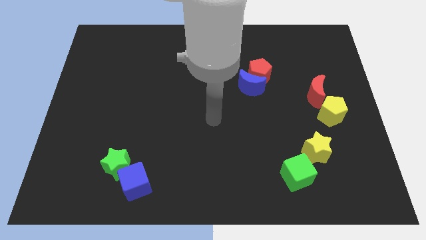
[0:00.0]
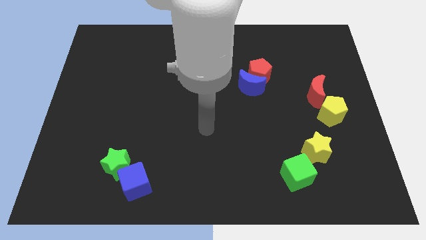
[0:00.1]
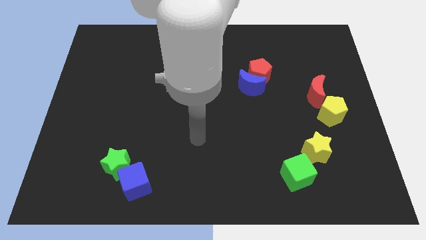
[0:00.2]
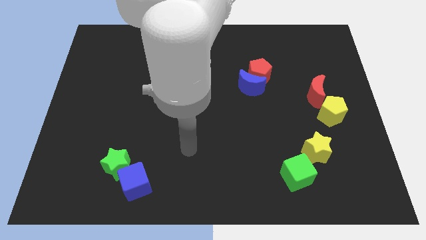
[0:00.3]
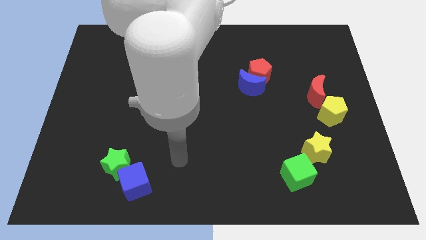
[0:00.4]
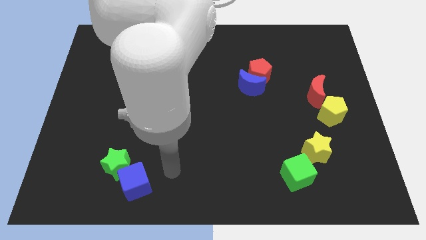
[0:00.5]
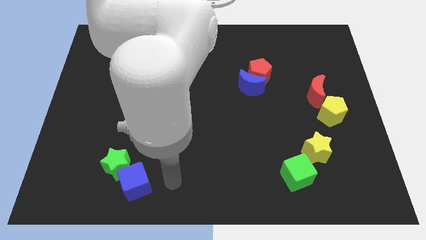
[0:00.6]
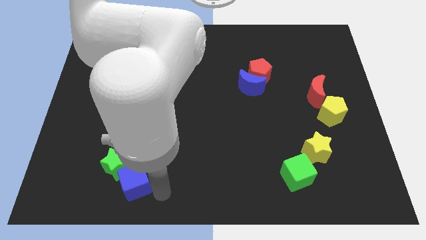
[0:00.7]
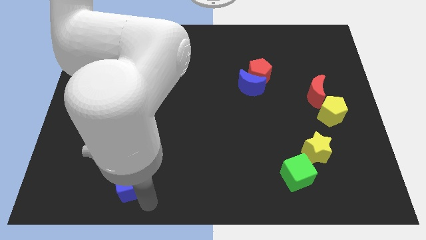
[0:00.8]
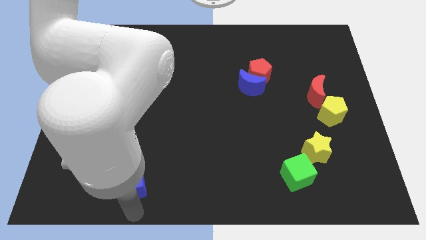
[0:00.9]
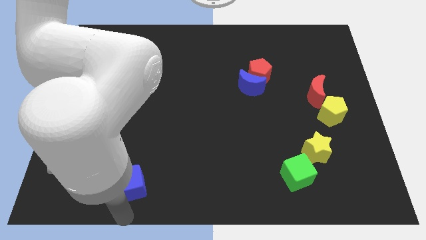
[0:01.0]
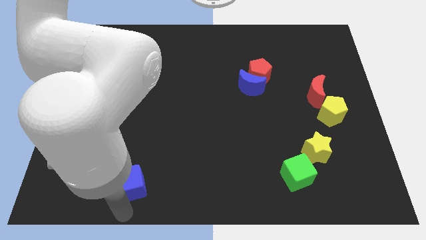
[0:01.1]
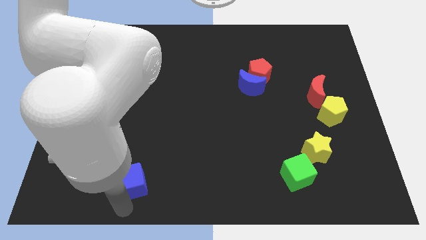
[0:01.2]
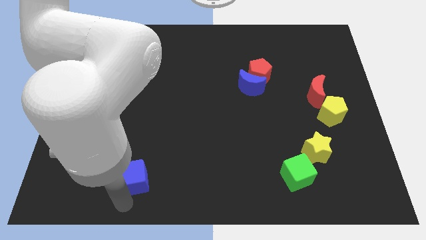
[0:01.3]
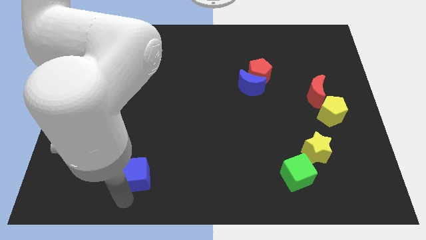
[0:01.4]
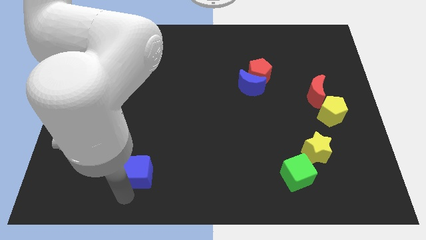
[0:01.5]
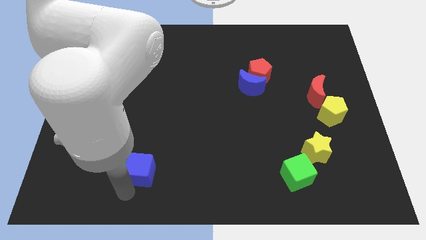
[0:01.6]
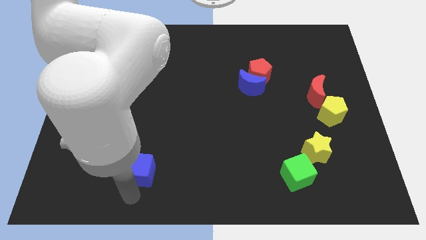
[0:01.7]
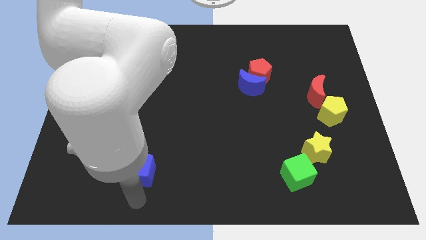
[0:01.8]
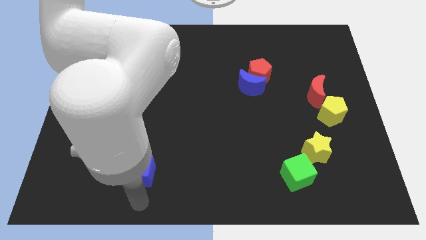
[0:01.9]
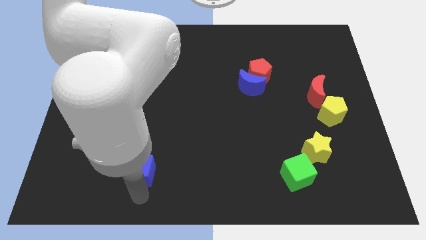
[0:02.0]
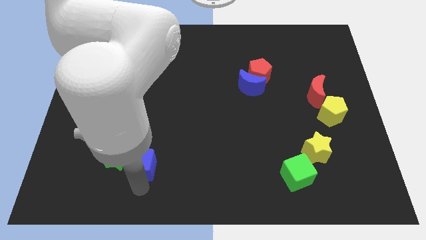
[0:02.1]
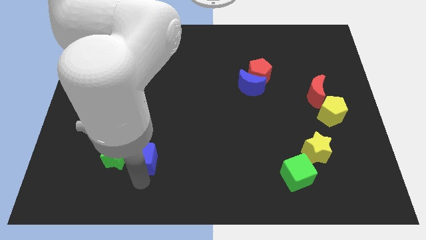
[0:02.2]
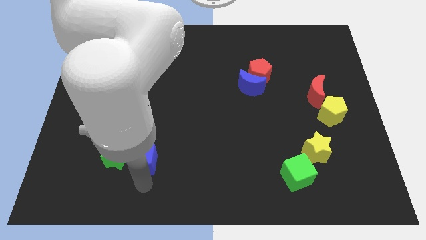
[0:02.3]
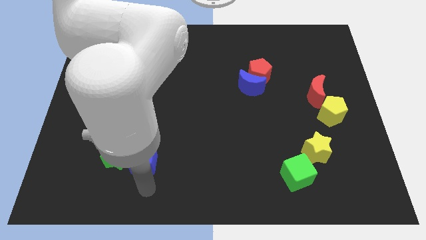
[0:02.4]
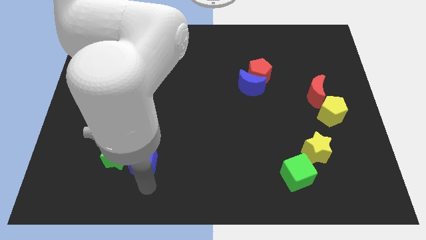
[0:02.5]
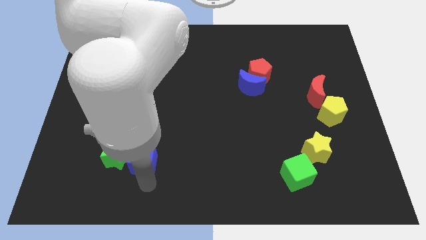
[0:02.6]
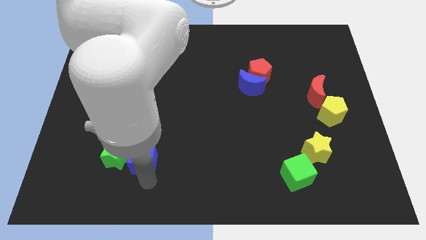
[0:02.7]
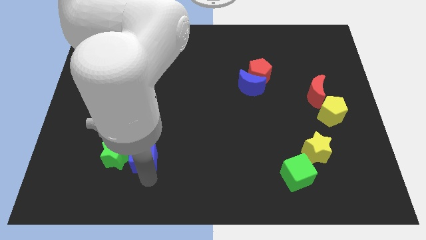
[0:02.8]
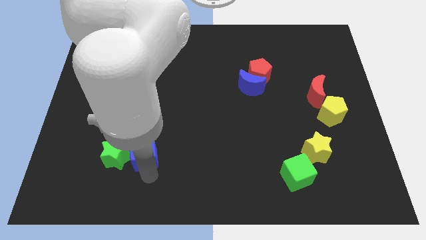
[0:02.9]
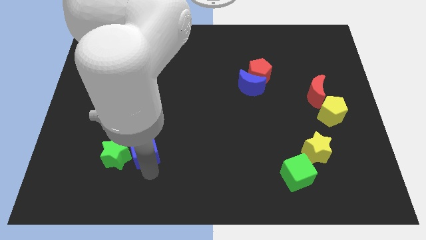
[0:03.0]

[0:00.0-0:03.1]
slightly push the blue cube upwards

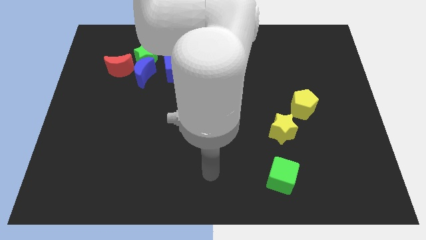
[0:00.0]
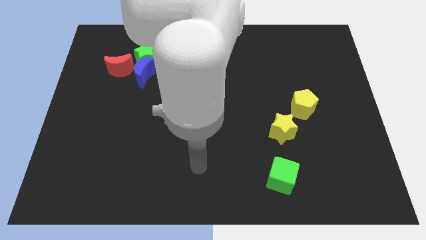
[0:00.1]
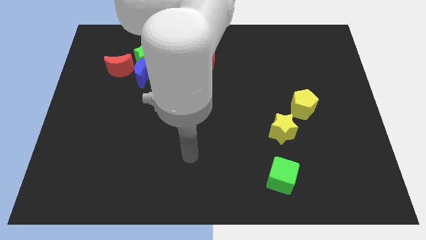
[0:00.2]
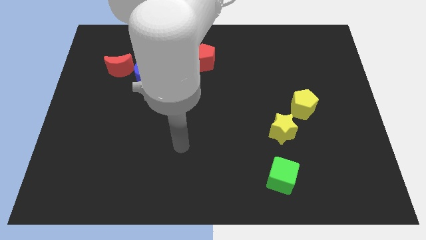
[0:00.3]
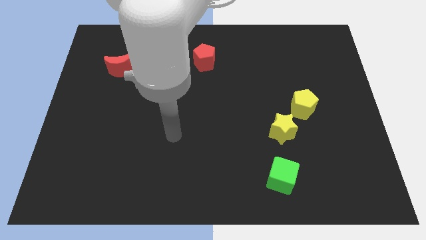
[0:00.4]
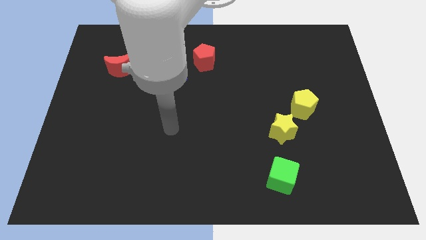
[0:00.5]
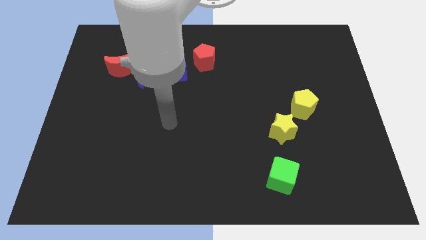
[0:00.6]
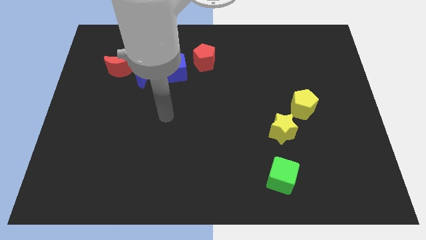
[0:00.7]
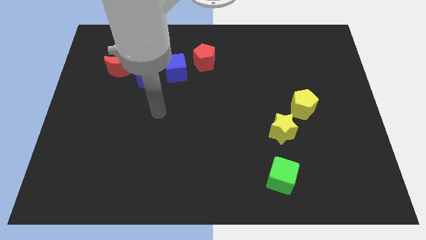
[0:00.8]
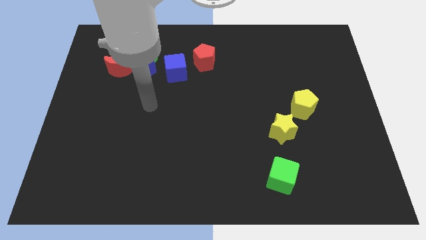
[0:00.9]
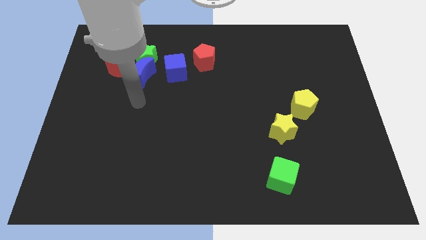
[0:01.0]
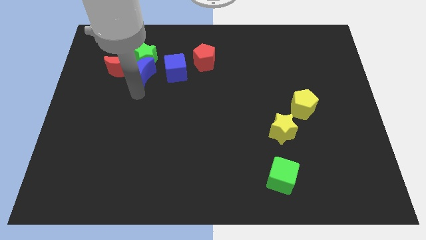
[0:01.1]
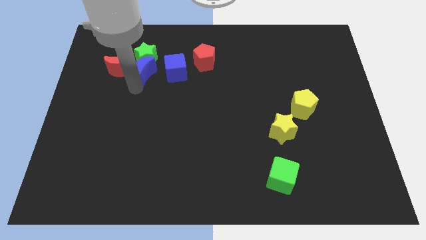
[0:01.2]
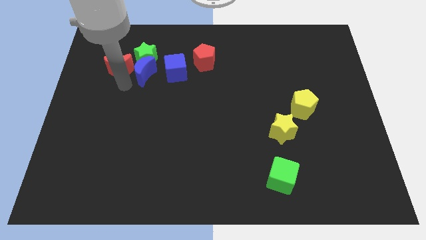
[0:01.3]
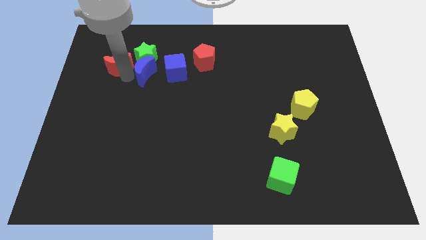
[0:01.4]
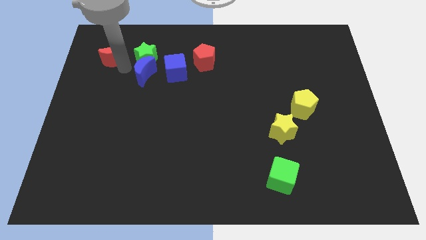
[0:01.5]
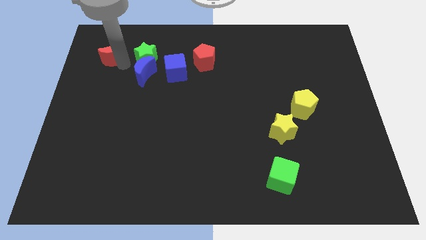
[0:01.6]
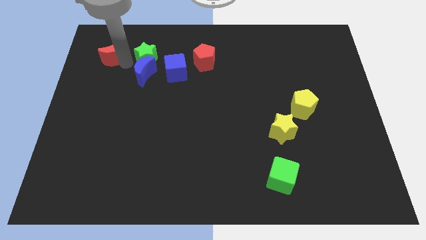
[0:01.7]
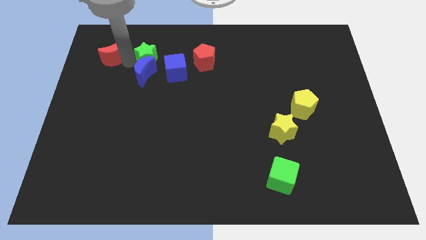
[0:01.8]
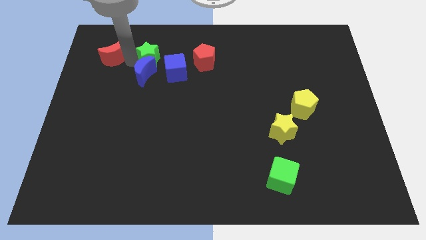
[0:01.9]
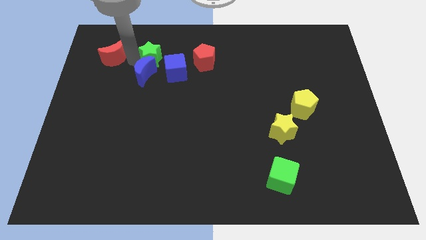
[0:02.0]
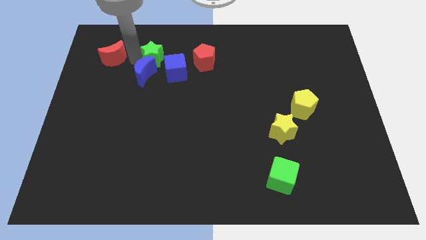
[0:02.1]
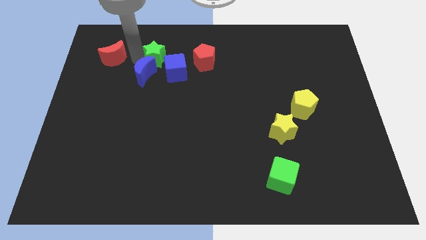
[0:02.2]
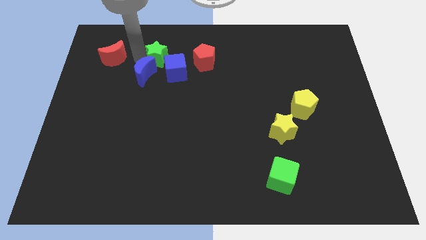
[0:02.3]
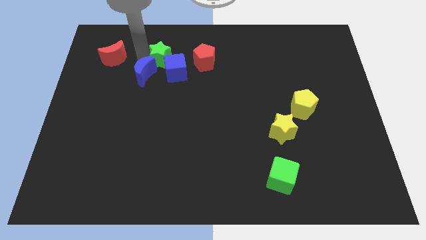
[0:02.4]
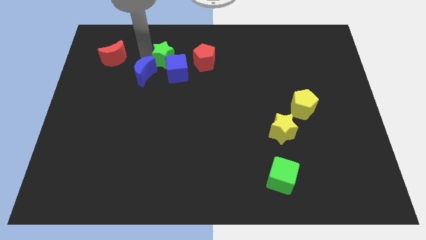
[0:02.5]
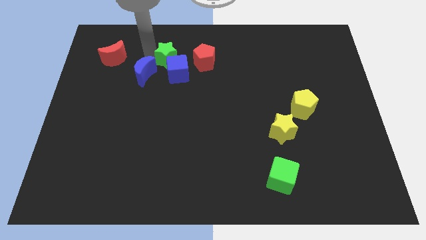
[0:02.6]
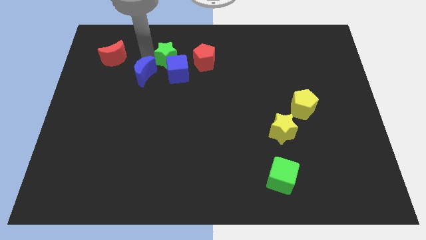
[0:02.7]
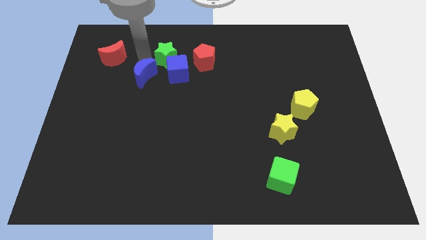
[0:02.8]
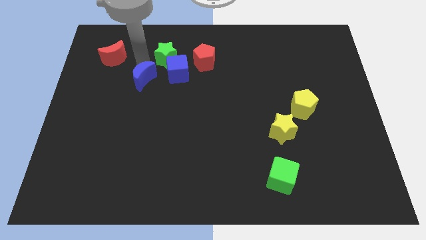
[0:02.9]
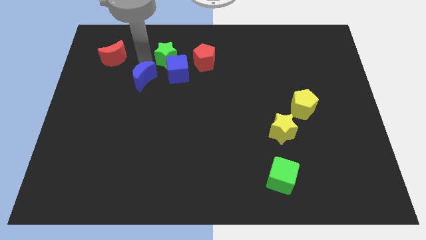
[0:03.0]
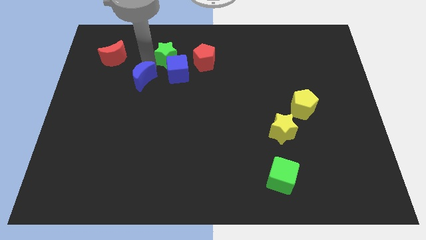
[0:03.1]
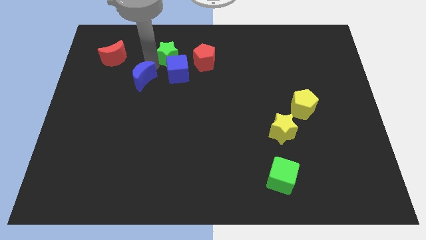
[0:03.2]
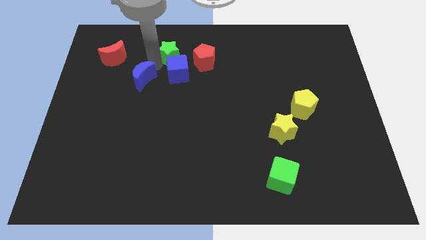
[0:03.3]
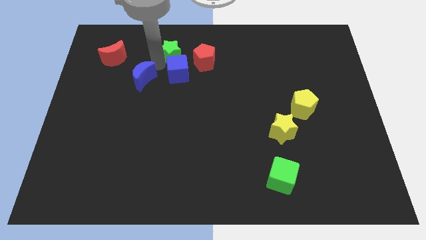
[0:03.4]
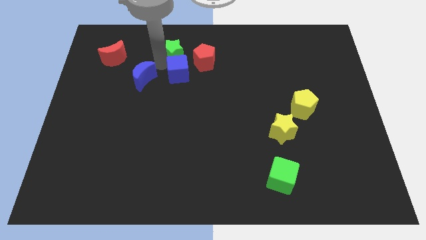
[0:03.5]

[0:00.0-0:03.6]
slide the green star a bit to the right

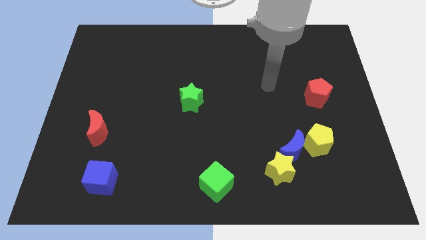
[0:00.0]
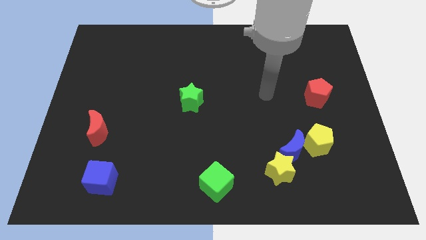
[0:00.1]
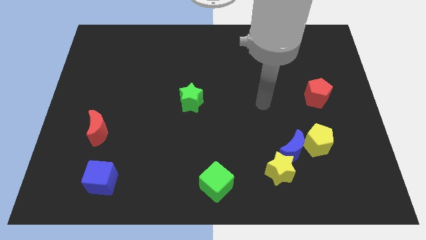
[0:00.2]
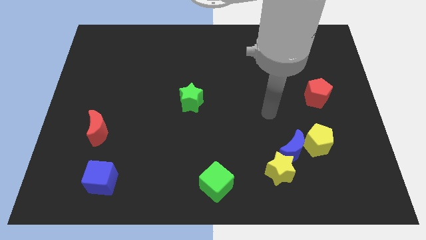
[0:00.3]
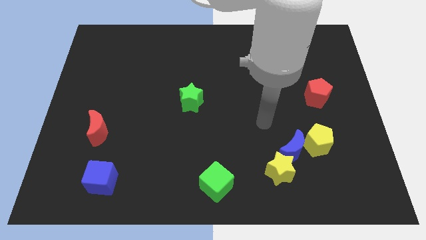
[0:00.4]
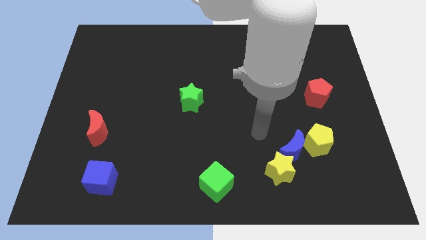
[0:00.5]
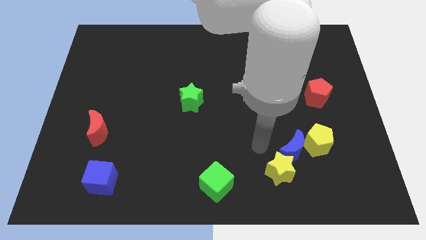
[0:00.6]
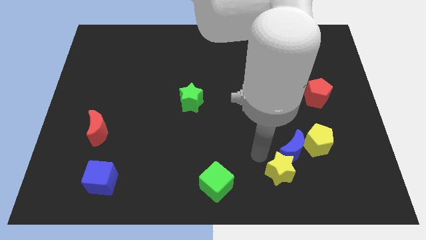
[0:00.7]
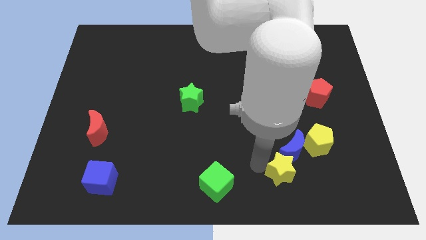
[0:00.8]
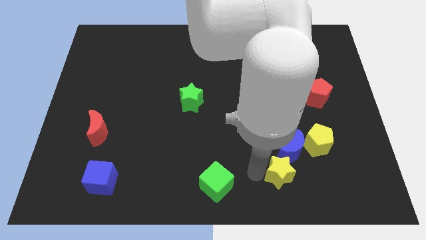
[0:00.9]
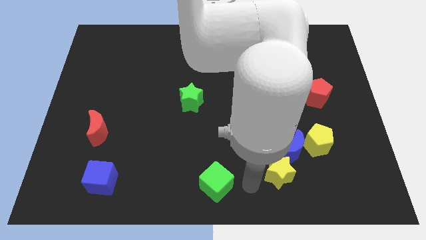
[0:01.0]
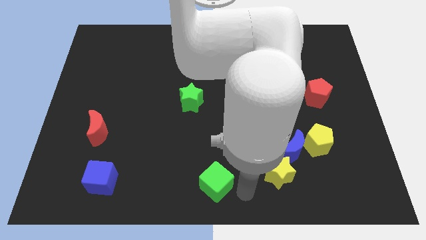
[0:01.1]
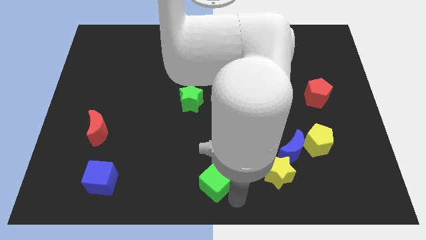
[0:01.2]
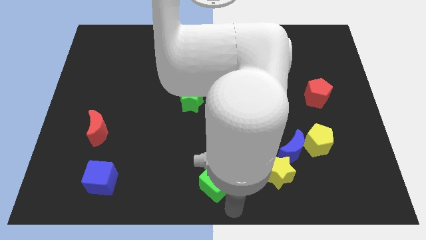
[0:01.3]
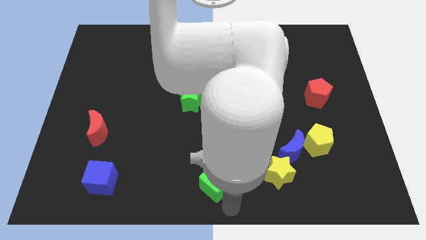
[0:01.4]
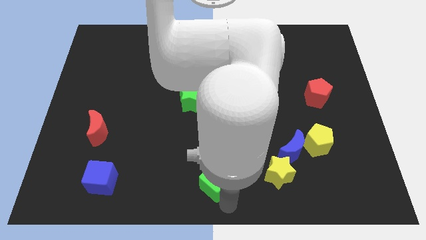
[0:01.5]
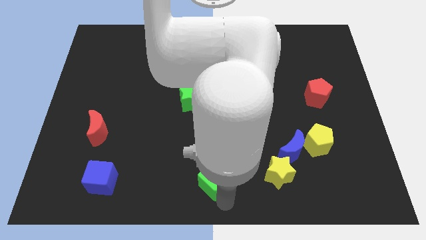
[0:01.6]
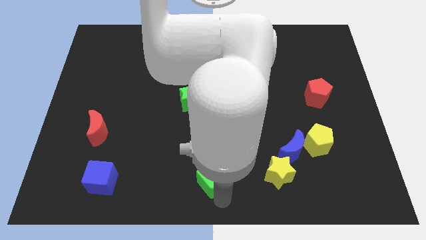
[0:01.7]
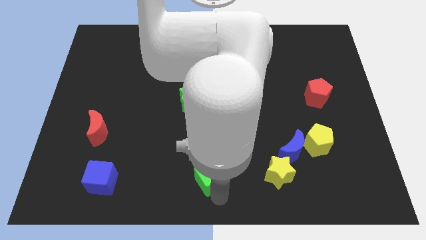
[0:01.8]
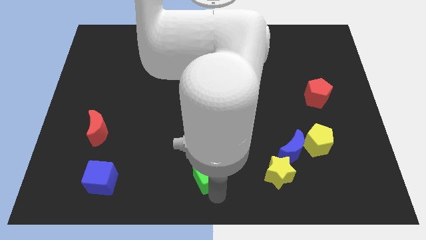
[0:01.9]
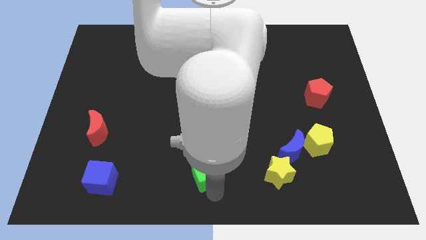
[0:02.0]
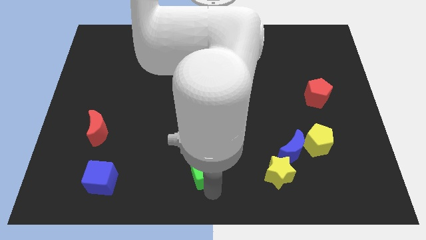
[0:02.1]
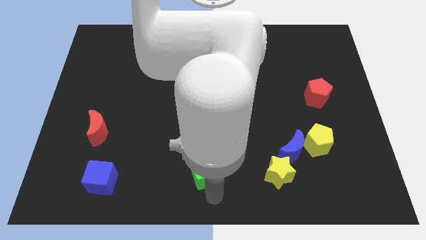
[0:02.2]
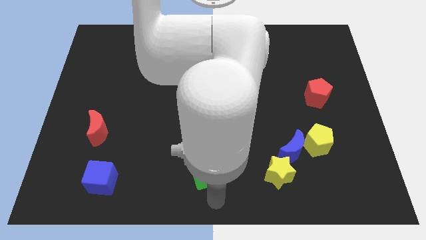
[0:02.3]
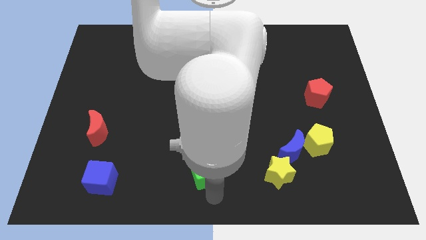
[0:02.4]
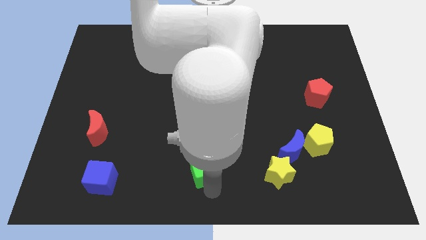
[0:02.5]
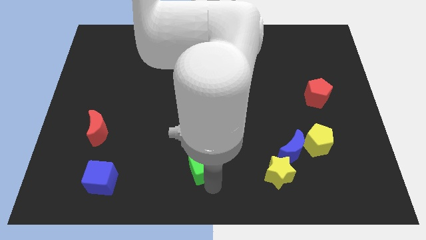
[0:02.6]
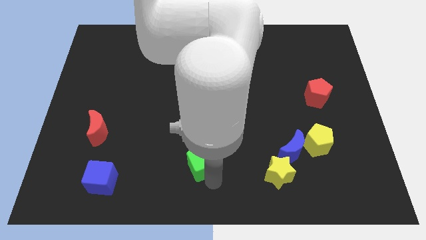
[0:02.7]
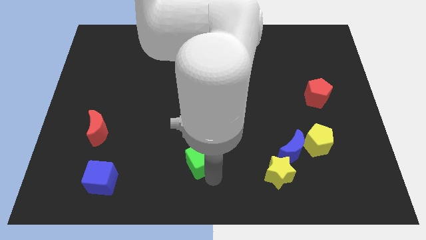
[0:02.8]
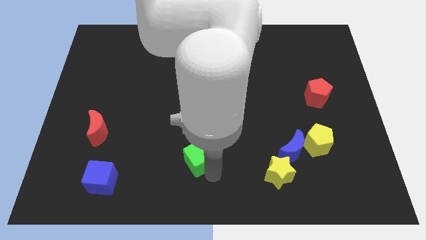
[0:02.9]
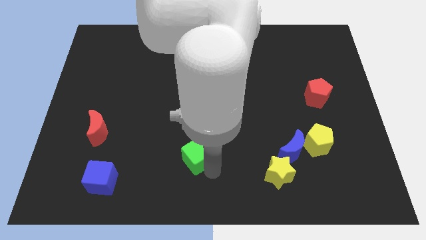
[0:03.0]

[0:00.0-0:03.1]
push the green cube somewhat diagonally upwards and to the left
